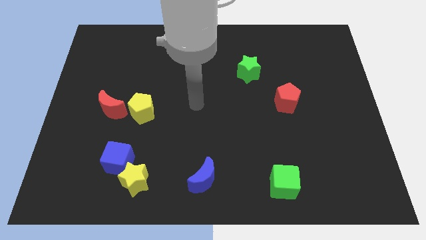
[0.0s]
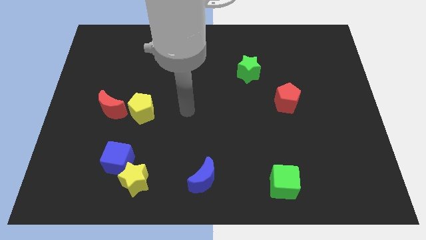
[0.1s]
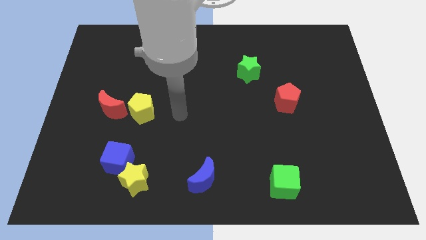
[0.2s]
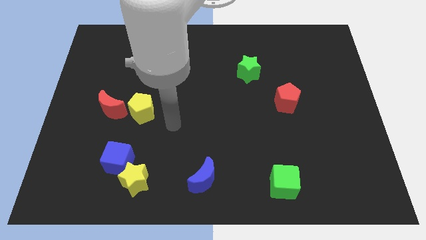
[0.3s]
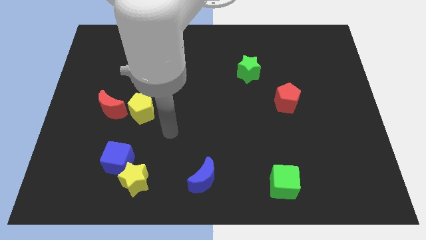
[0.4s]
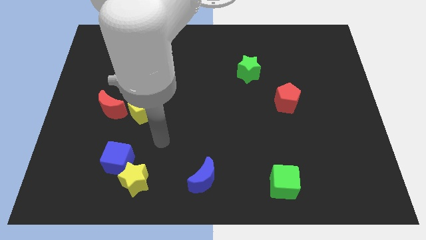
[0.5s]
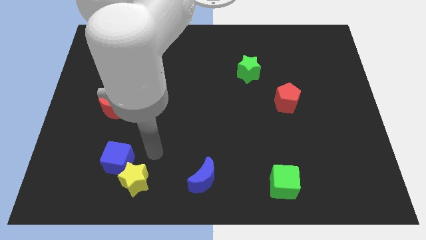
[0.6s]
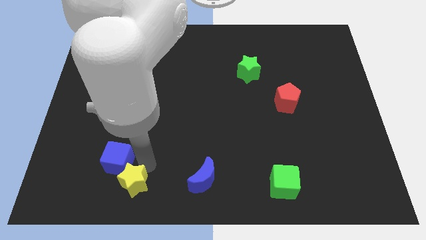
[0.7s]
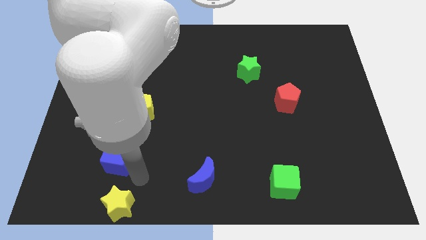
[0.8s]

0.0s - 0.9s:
separate the blue cube from the yellow star

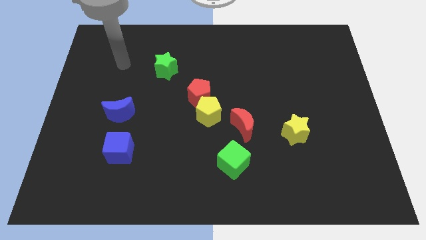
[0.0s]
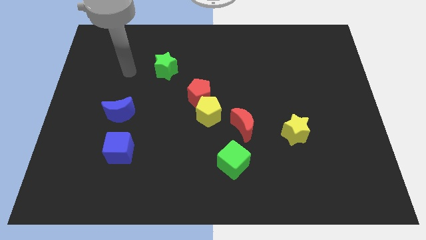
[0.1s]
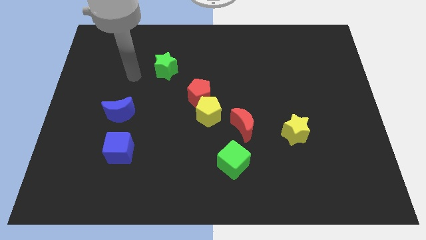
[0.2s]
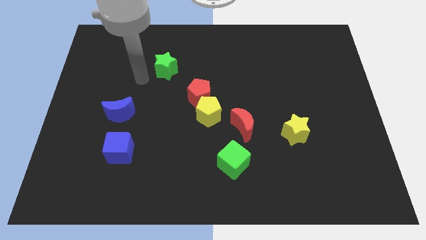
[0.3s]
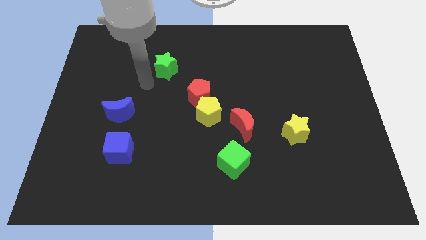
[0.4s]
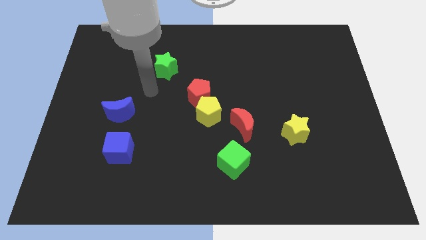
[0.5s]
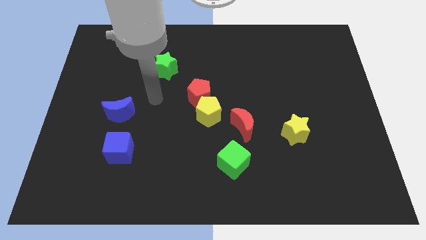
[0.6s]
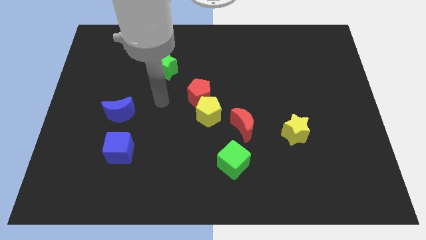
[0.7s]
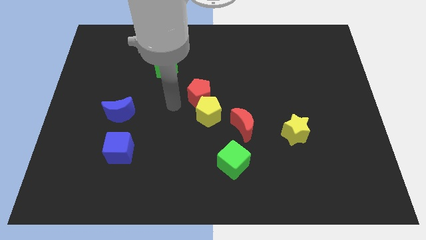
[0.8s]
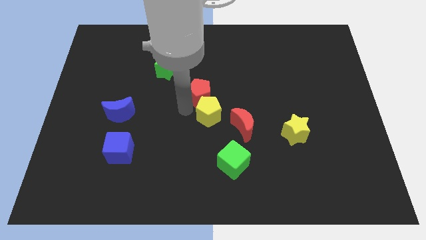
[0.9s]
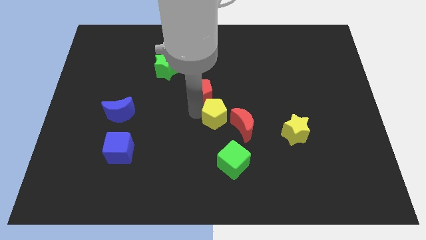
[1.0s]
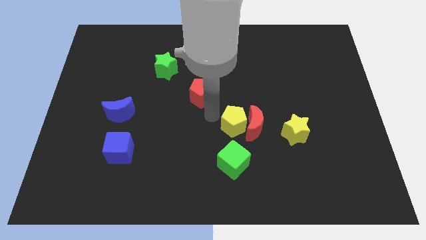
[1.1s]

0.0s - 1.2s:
move the red pentagon away from the yellow pentagon

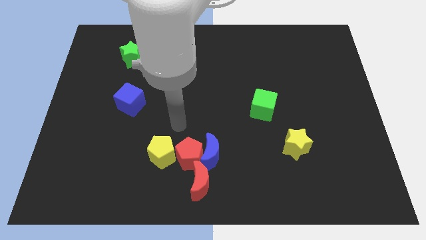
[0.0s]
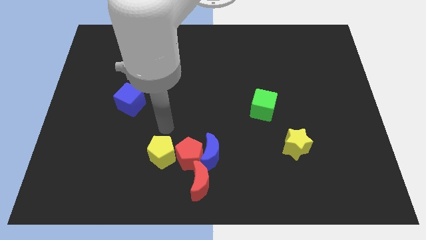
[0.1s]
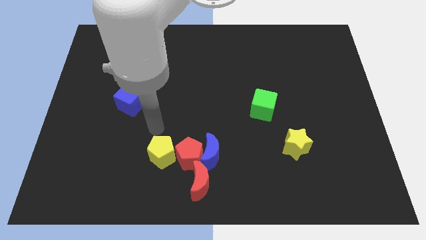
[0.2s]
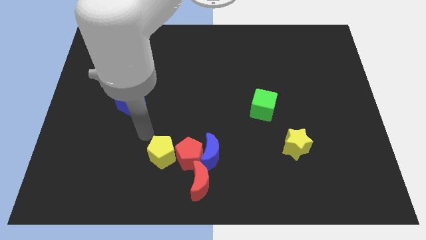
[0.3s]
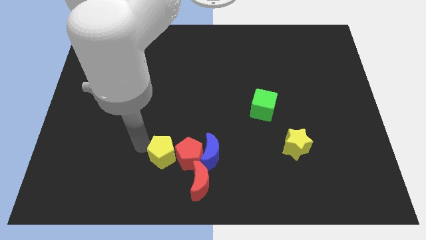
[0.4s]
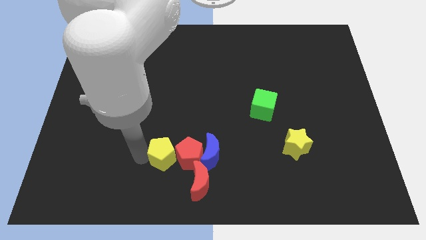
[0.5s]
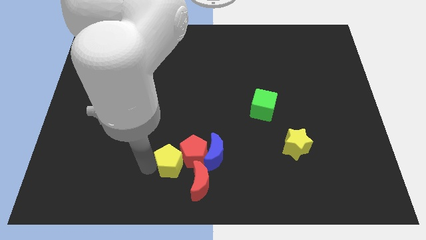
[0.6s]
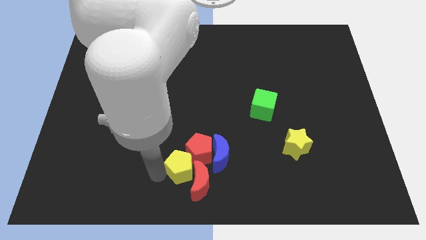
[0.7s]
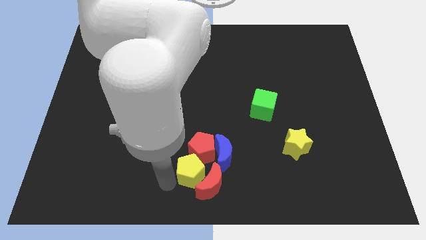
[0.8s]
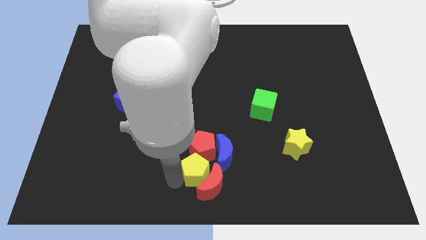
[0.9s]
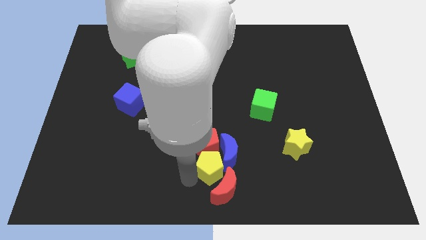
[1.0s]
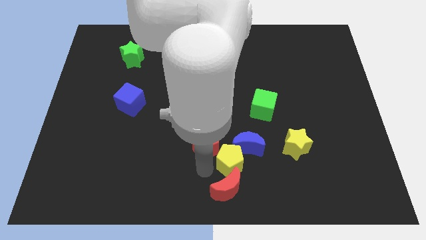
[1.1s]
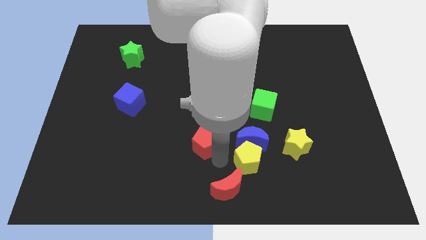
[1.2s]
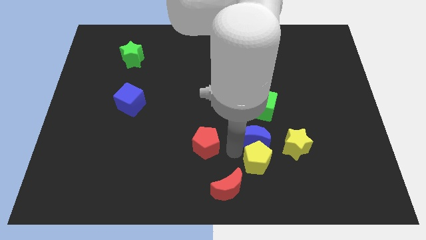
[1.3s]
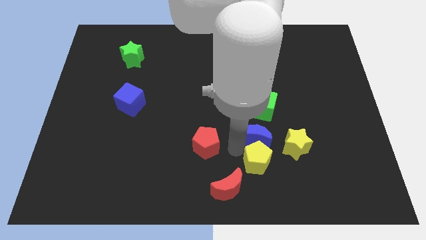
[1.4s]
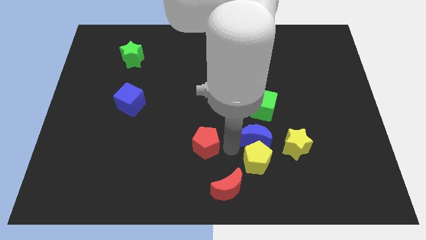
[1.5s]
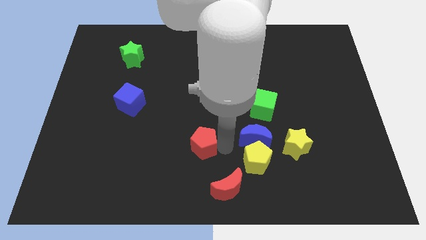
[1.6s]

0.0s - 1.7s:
pull the red pentagon apart from the group of blocks

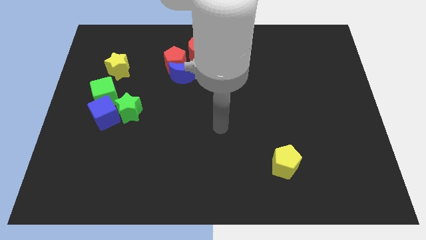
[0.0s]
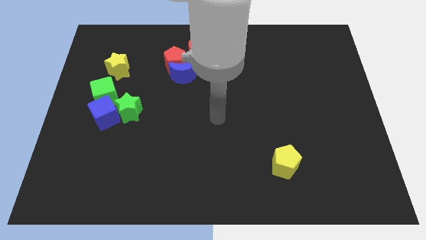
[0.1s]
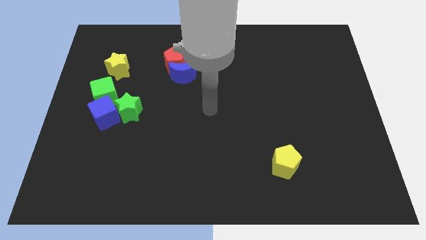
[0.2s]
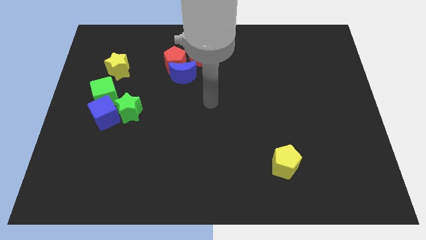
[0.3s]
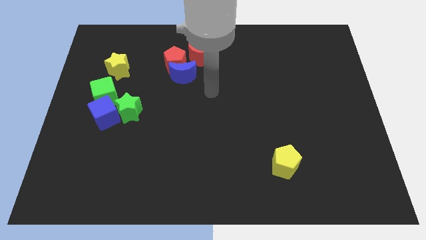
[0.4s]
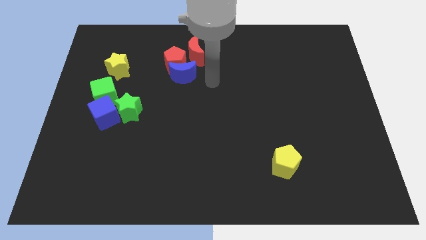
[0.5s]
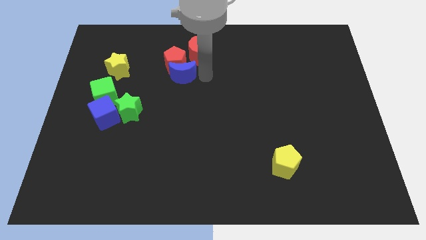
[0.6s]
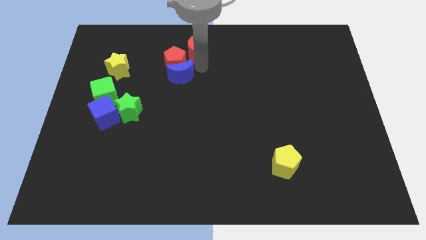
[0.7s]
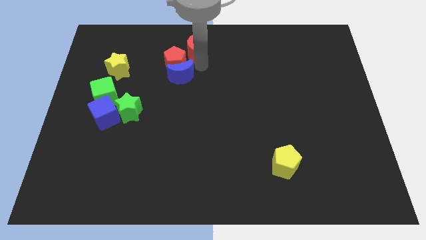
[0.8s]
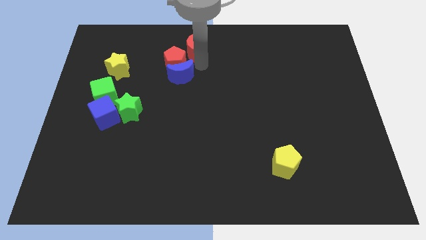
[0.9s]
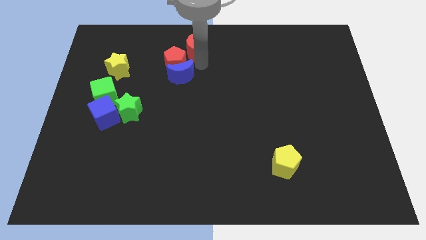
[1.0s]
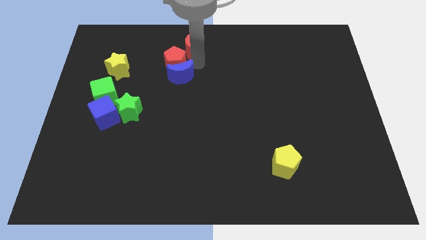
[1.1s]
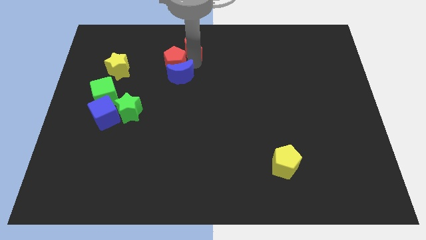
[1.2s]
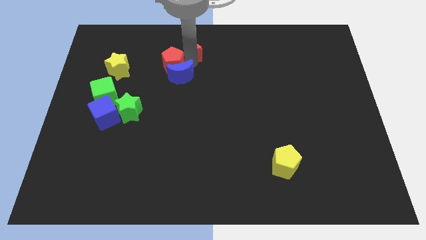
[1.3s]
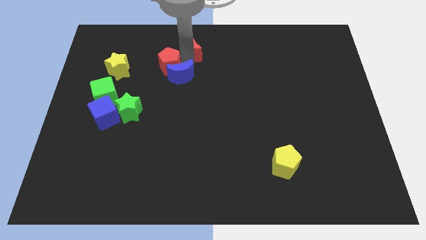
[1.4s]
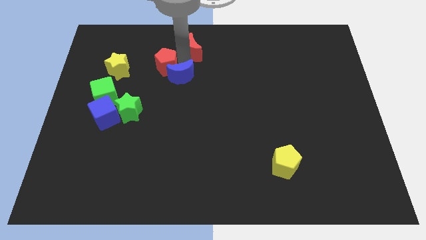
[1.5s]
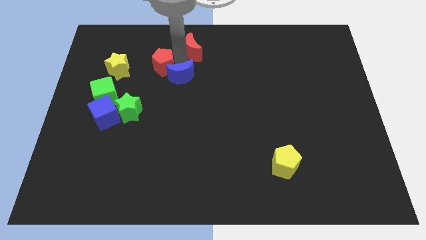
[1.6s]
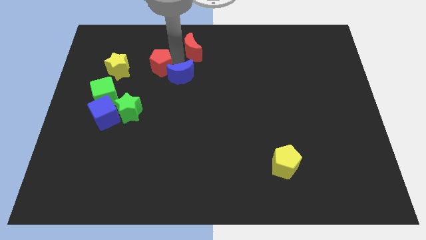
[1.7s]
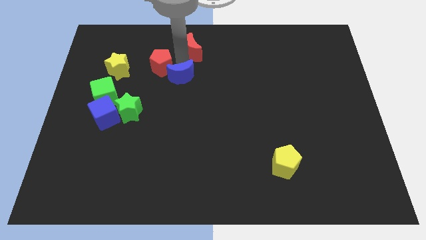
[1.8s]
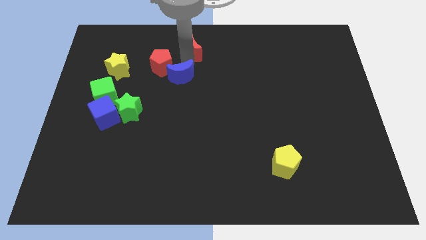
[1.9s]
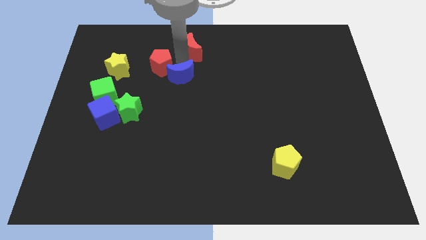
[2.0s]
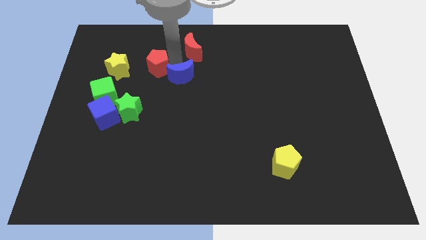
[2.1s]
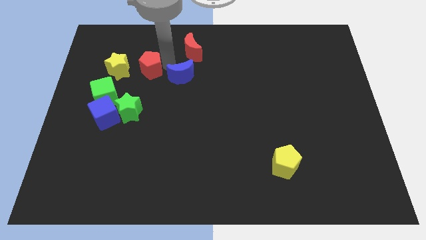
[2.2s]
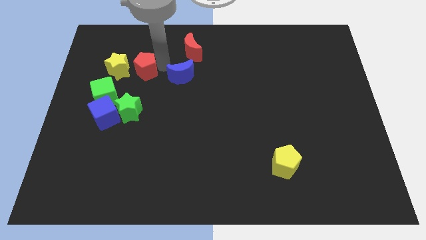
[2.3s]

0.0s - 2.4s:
separate the red pentagon from the blue moon and red moon

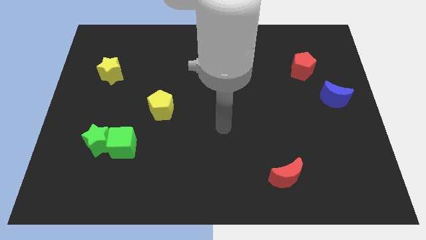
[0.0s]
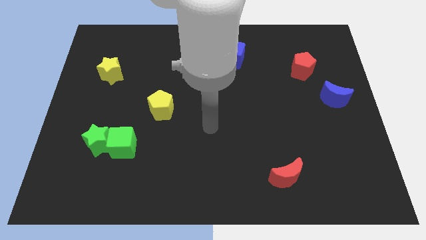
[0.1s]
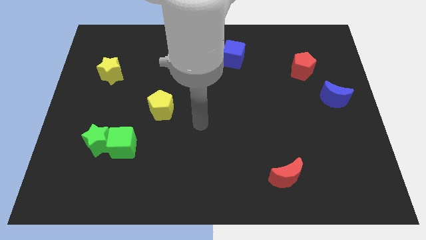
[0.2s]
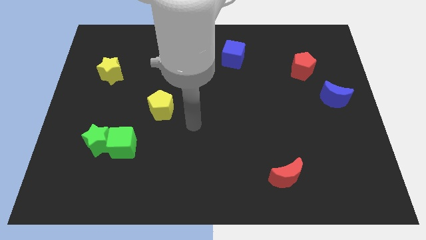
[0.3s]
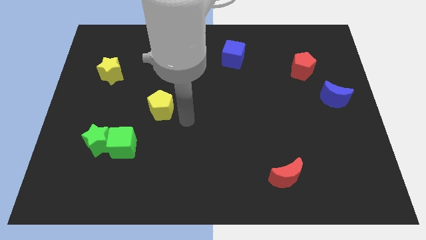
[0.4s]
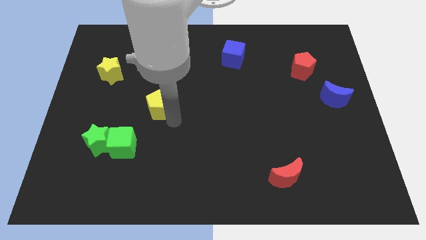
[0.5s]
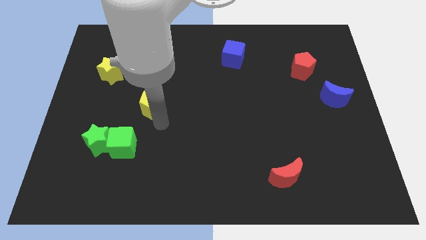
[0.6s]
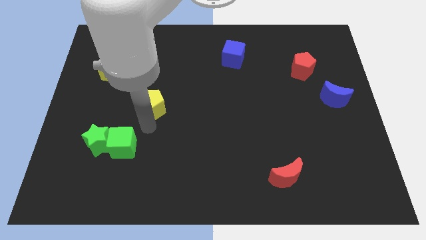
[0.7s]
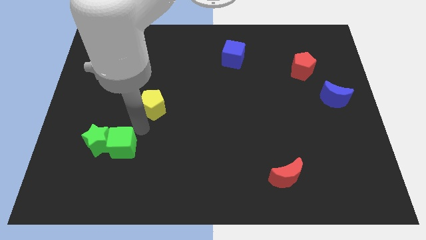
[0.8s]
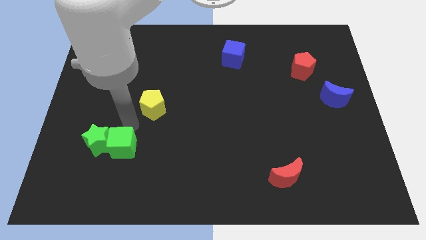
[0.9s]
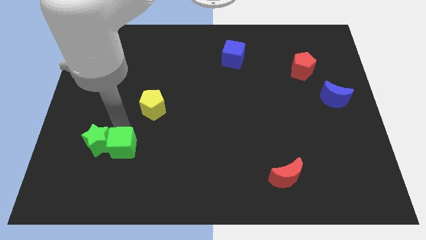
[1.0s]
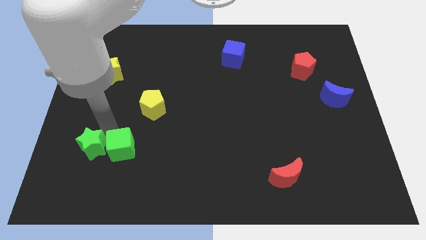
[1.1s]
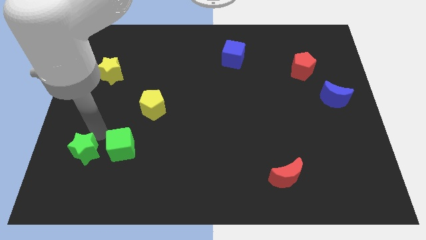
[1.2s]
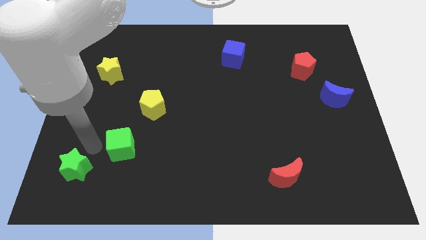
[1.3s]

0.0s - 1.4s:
move the green cube away from the green star

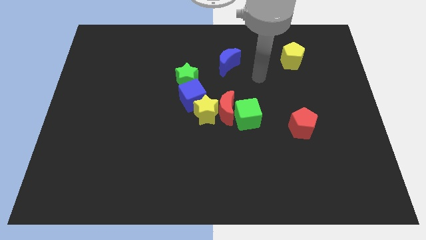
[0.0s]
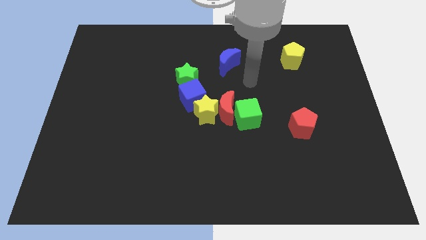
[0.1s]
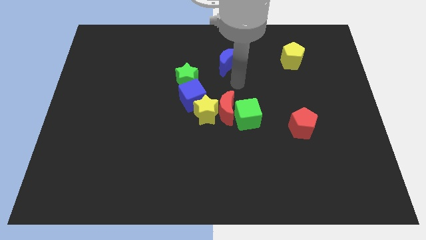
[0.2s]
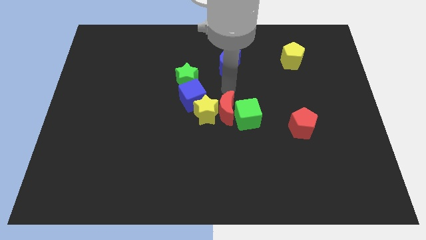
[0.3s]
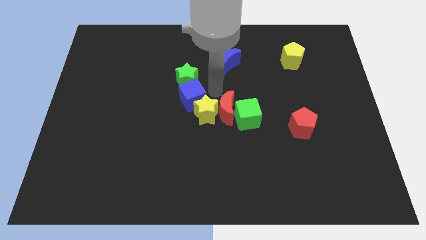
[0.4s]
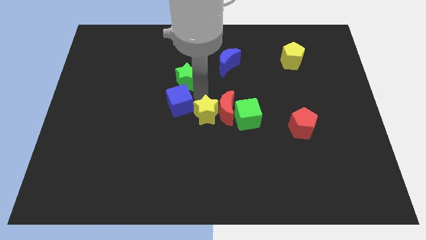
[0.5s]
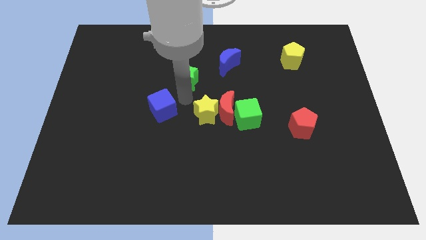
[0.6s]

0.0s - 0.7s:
move the green star away from the blue cube

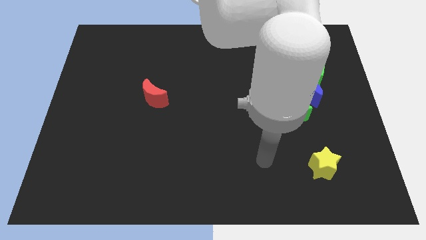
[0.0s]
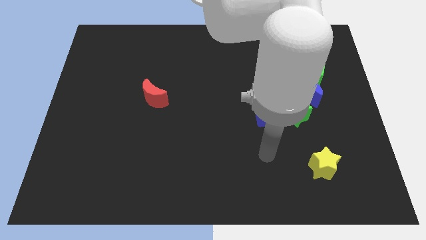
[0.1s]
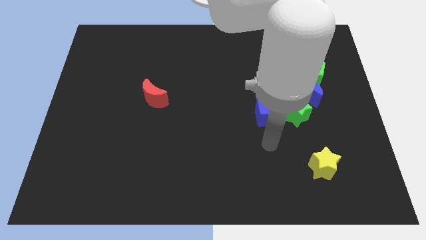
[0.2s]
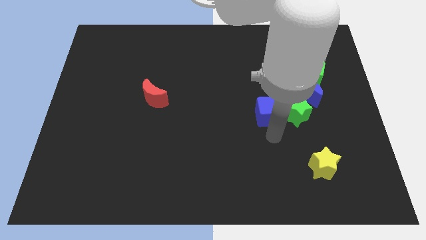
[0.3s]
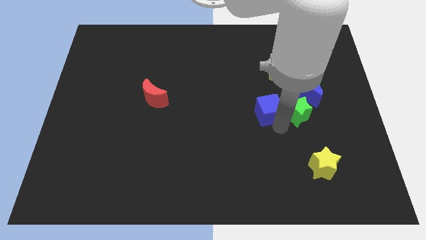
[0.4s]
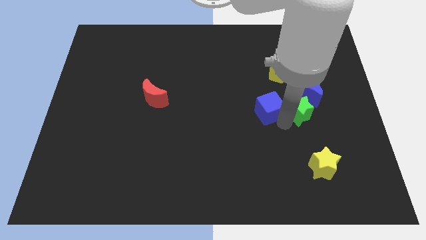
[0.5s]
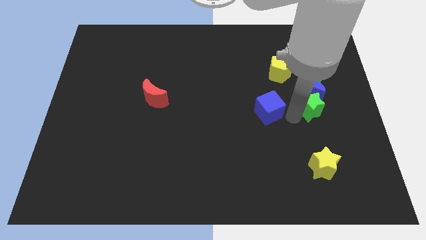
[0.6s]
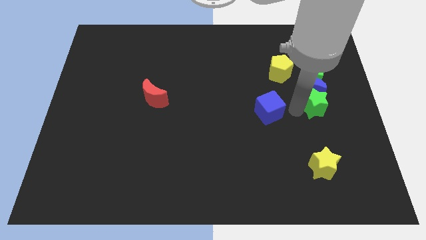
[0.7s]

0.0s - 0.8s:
move the blue cube away from the green star

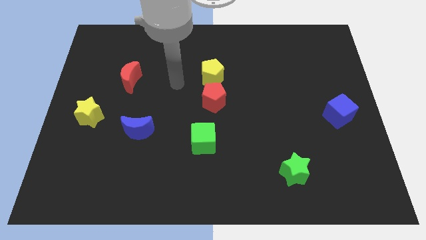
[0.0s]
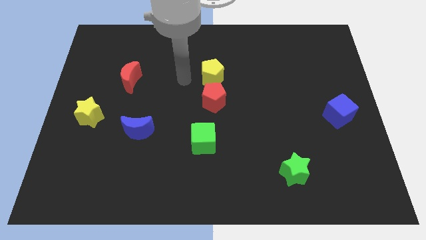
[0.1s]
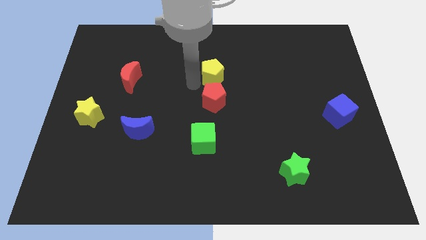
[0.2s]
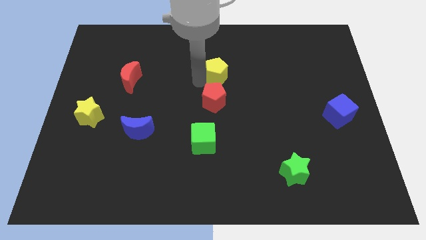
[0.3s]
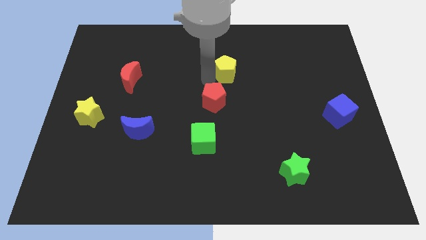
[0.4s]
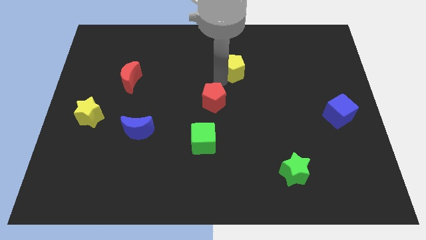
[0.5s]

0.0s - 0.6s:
separate the red pentagon from the yellow pentagon
